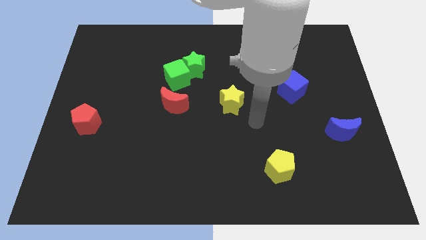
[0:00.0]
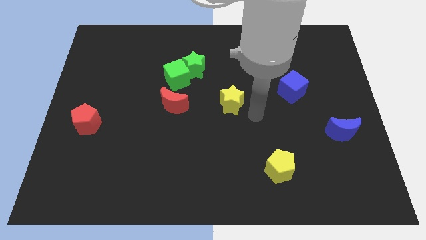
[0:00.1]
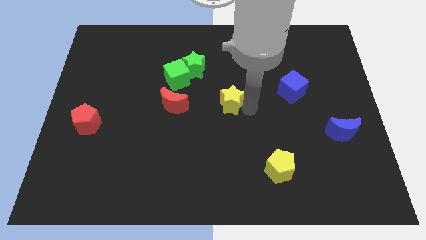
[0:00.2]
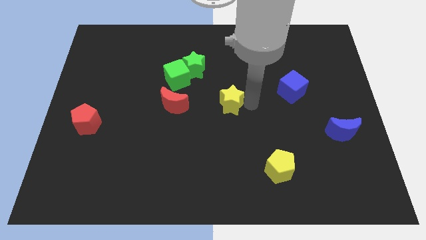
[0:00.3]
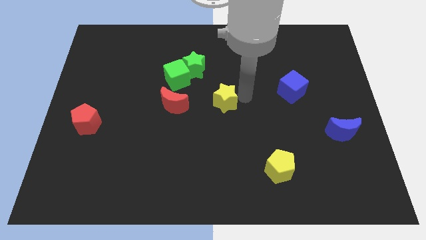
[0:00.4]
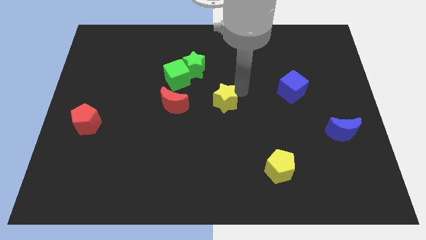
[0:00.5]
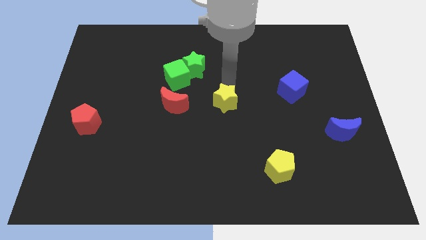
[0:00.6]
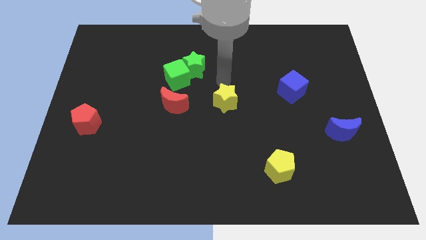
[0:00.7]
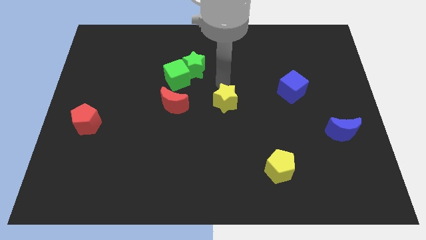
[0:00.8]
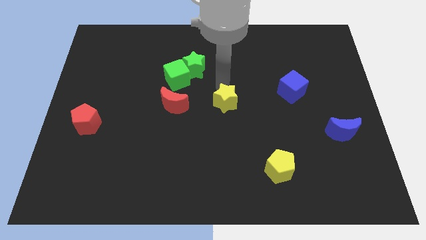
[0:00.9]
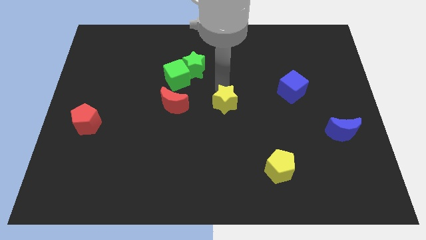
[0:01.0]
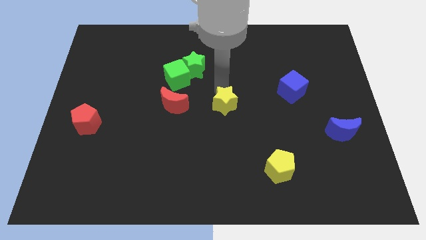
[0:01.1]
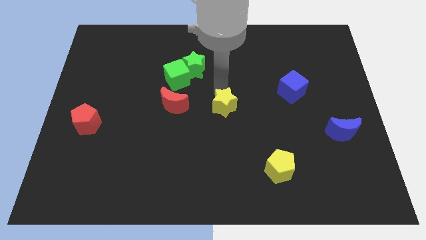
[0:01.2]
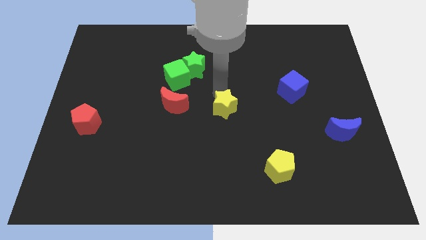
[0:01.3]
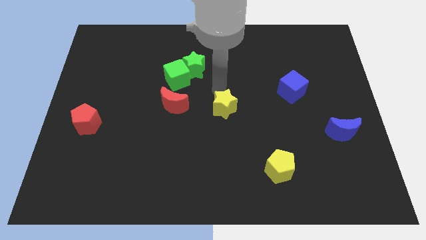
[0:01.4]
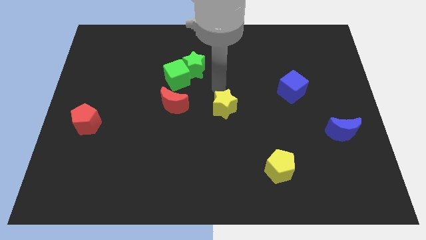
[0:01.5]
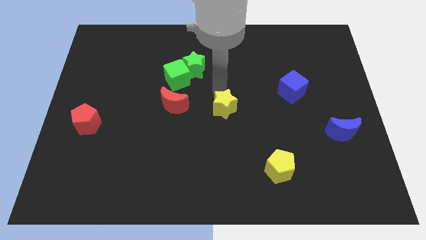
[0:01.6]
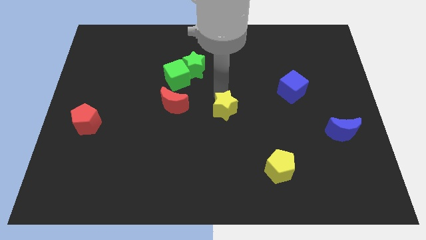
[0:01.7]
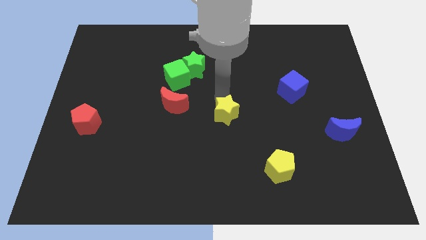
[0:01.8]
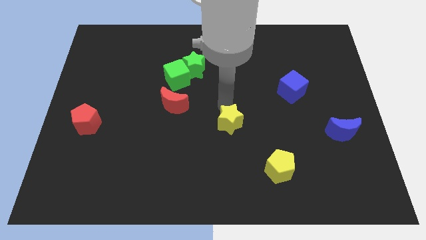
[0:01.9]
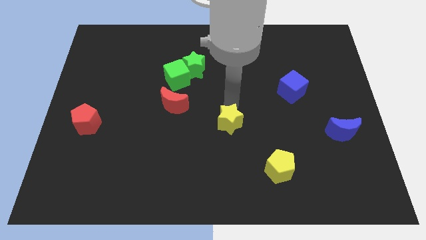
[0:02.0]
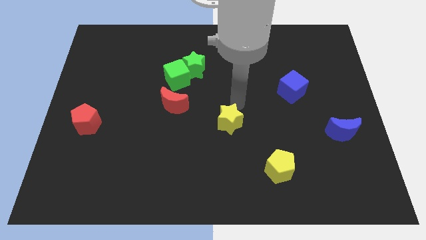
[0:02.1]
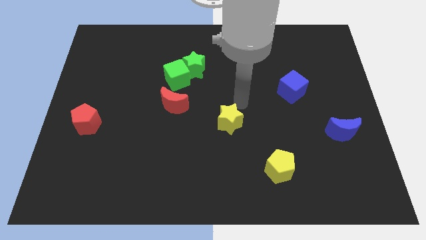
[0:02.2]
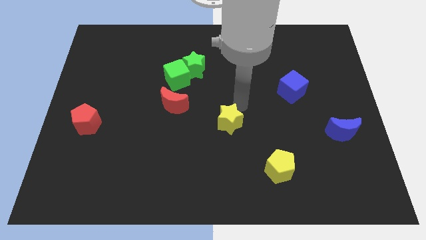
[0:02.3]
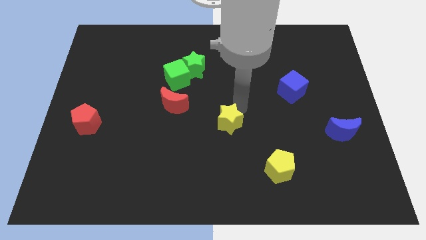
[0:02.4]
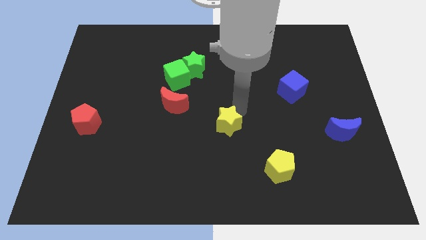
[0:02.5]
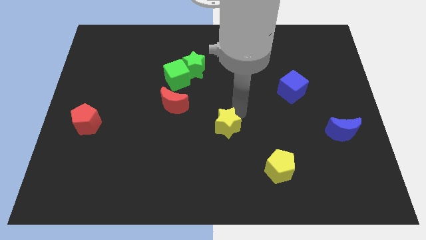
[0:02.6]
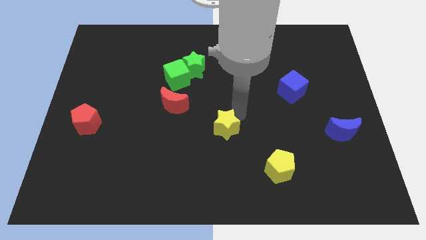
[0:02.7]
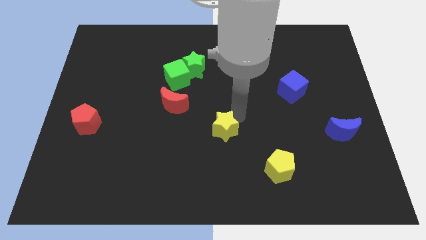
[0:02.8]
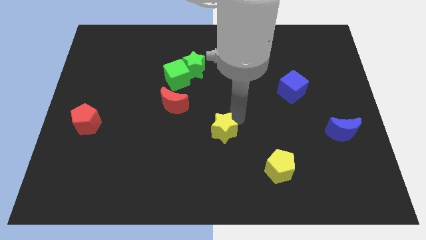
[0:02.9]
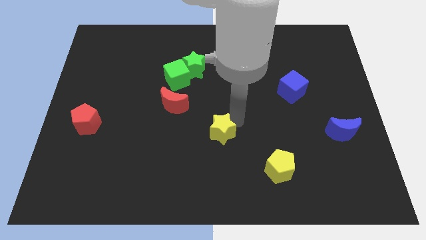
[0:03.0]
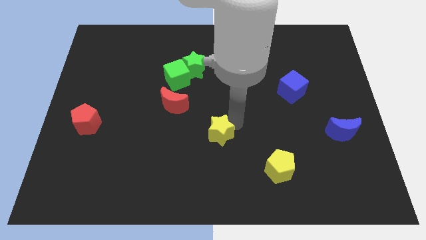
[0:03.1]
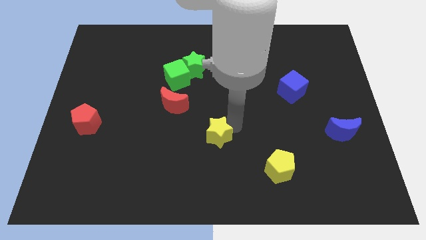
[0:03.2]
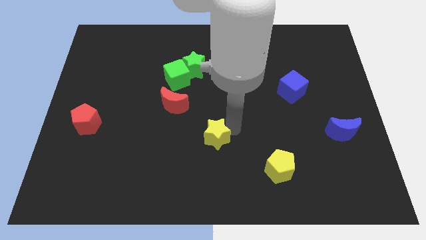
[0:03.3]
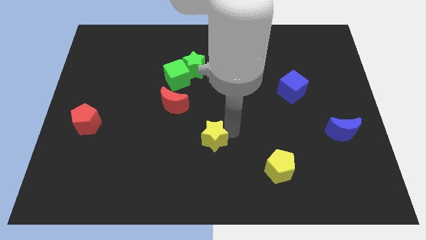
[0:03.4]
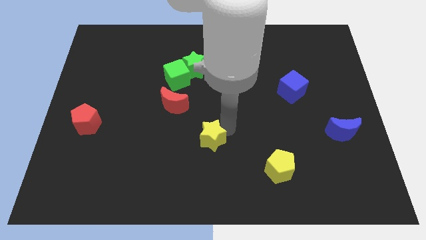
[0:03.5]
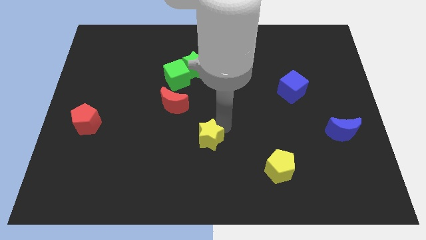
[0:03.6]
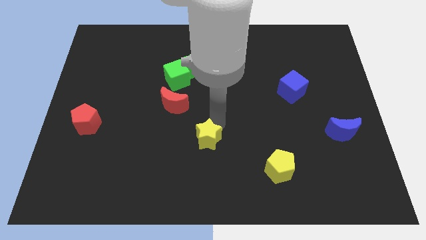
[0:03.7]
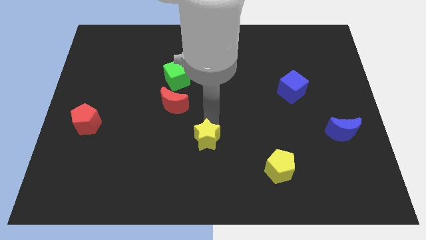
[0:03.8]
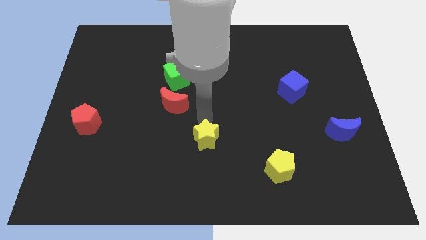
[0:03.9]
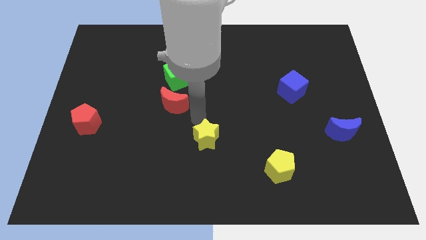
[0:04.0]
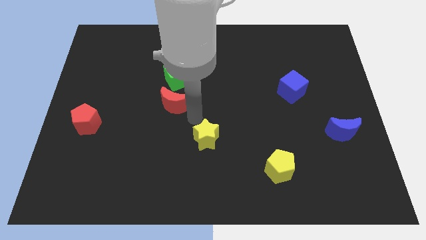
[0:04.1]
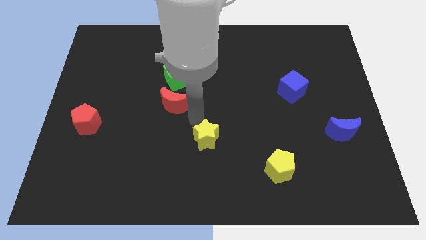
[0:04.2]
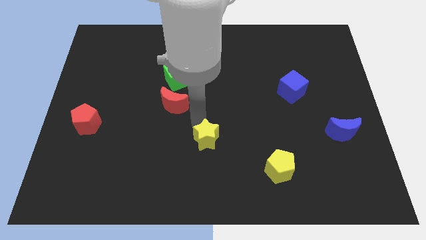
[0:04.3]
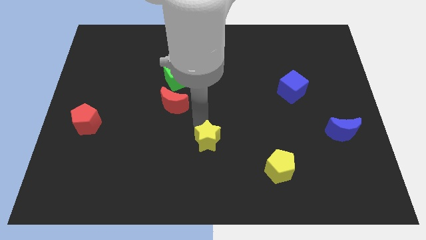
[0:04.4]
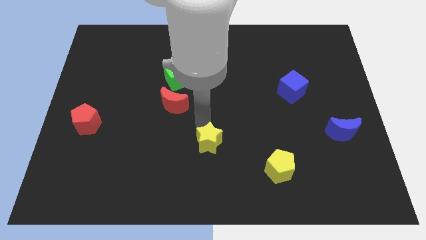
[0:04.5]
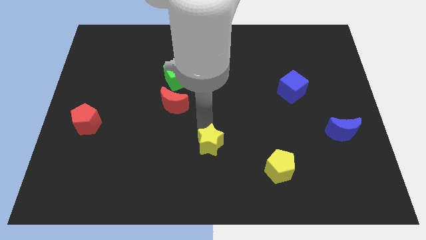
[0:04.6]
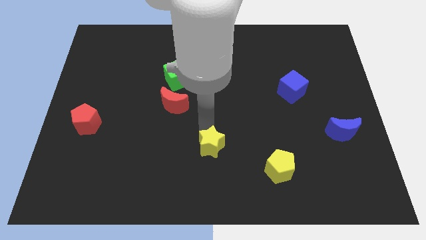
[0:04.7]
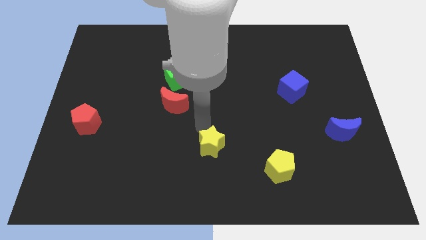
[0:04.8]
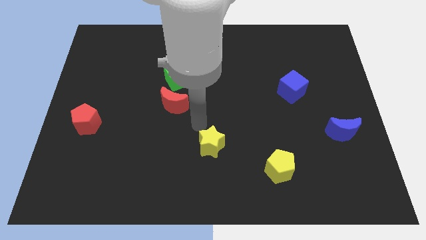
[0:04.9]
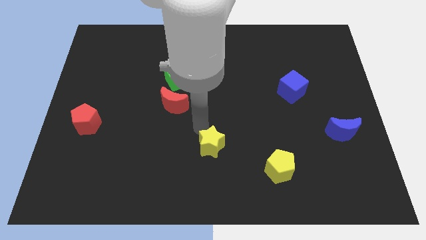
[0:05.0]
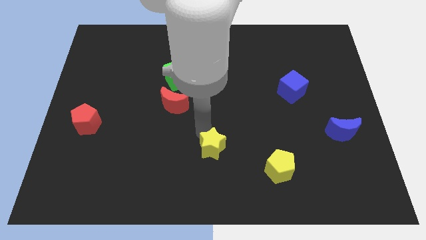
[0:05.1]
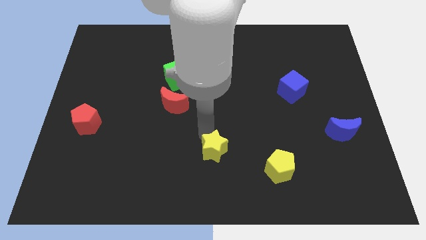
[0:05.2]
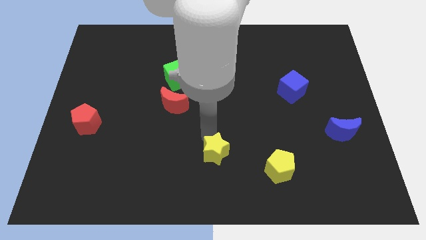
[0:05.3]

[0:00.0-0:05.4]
move the yellow star to the bottom

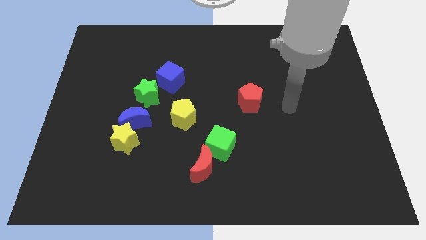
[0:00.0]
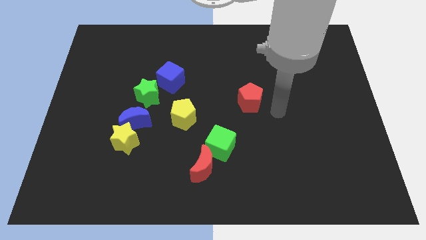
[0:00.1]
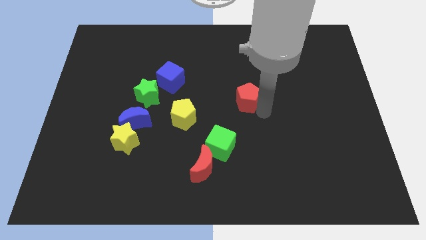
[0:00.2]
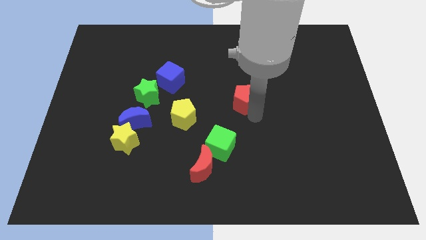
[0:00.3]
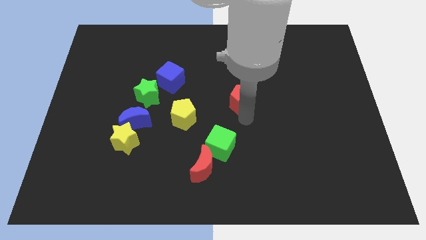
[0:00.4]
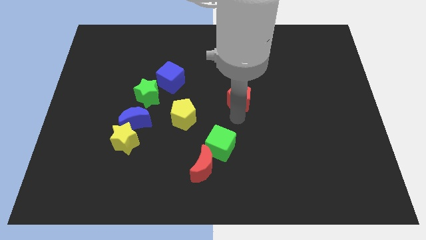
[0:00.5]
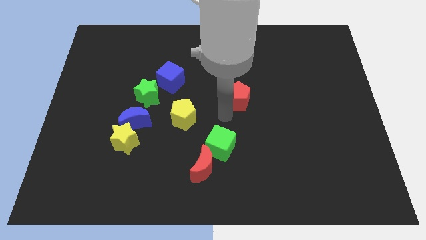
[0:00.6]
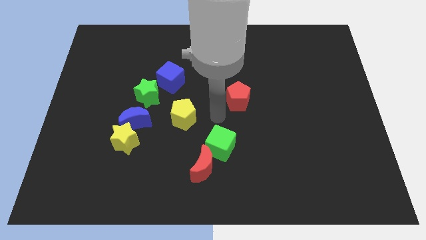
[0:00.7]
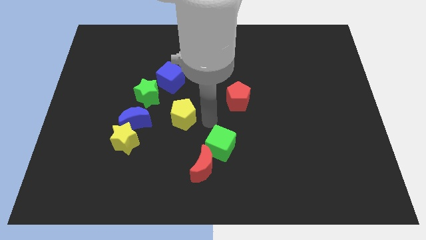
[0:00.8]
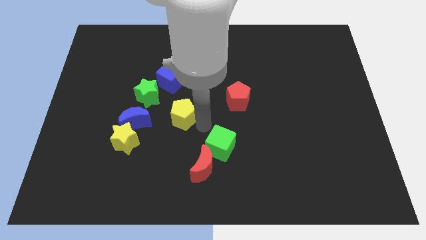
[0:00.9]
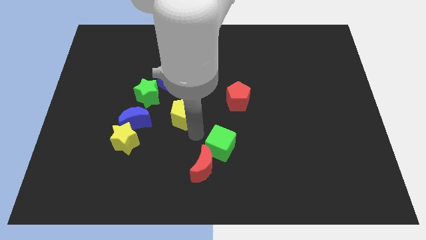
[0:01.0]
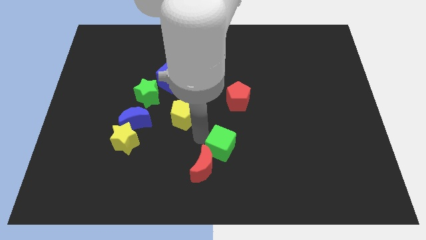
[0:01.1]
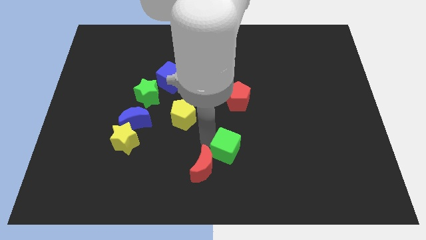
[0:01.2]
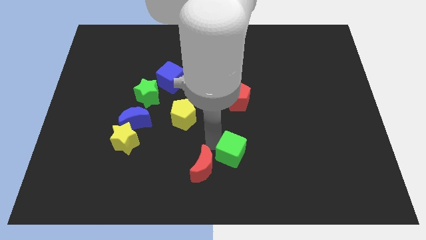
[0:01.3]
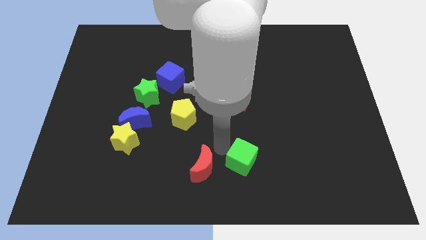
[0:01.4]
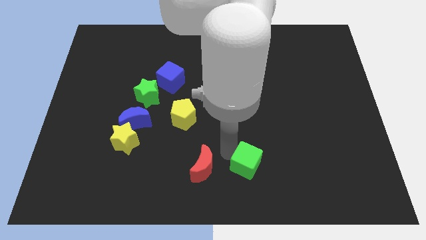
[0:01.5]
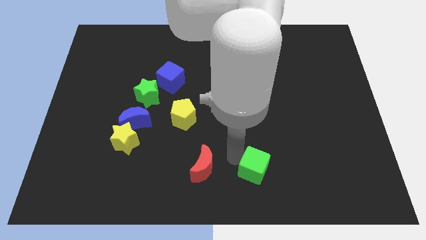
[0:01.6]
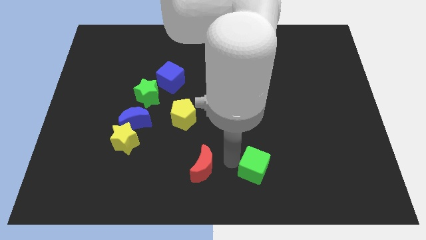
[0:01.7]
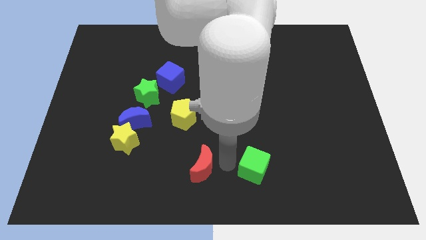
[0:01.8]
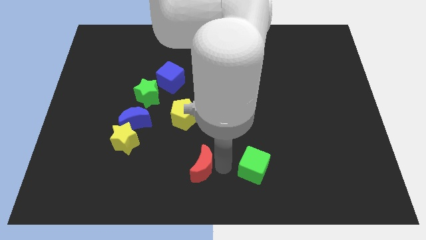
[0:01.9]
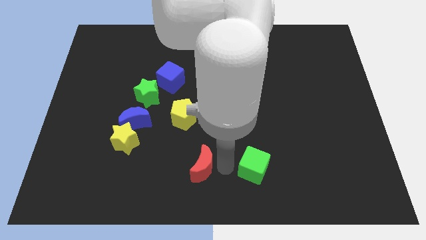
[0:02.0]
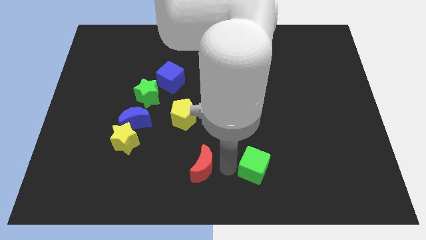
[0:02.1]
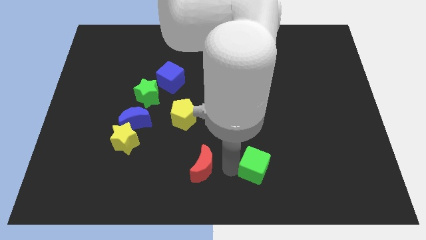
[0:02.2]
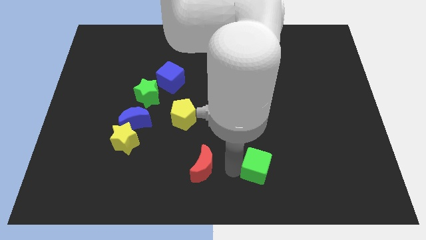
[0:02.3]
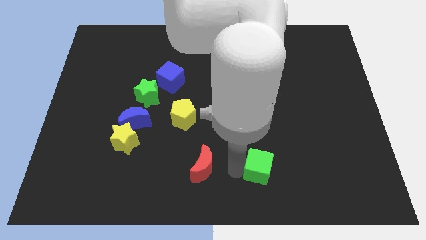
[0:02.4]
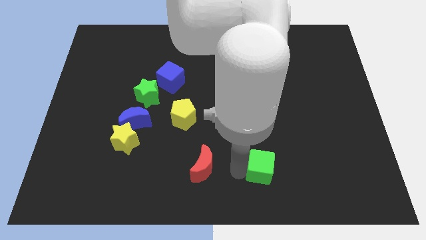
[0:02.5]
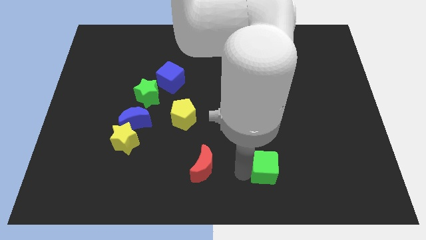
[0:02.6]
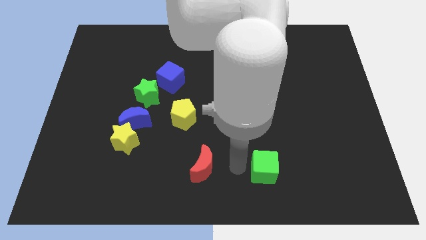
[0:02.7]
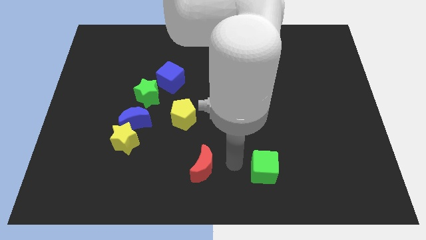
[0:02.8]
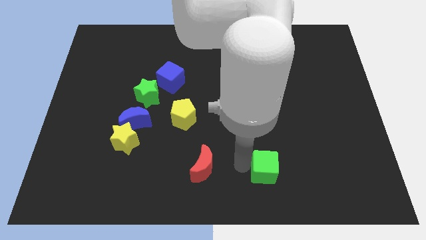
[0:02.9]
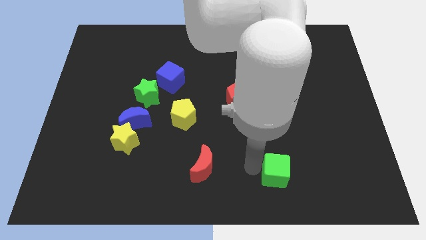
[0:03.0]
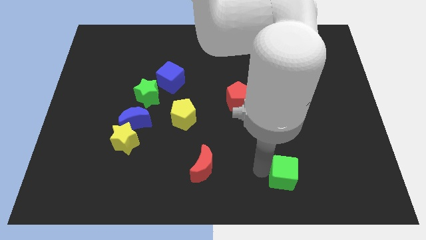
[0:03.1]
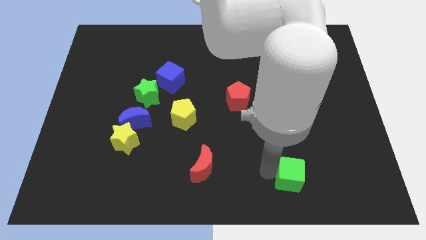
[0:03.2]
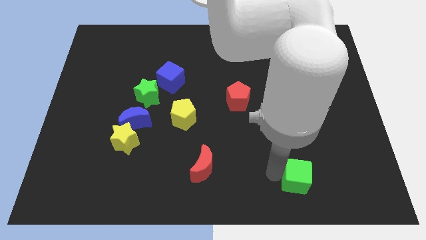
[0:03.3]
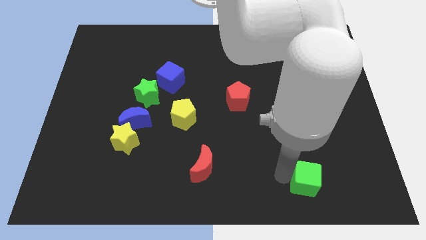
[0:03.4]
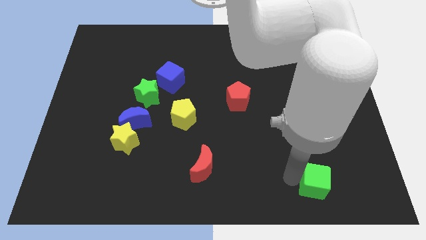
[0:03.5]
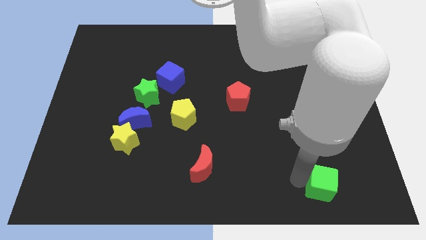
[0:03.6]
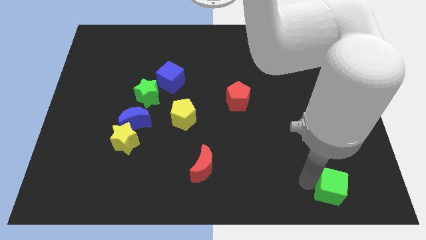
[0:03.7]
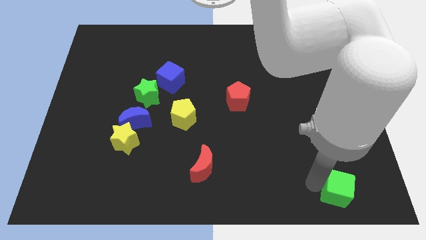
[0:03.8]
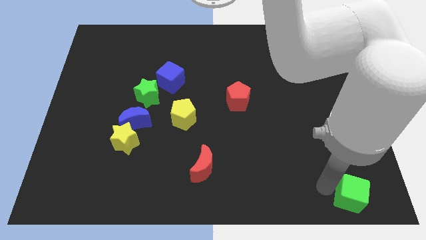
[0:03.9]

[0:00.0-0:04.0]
push the green cube to the bottom right
